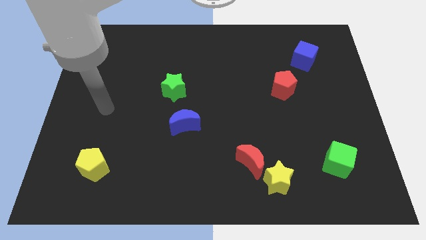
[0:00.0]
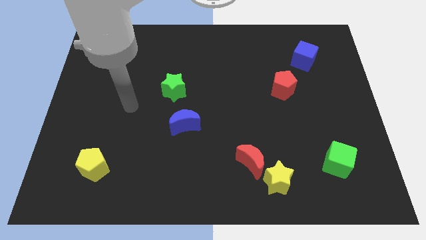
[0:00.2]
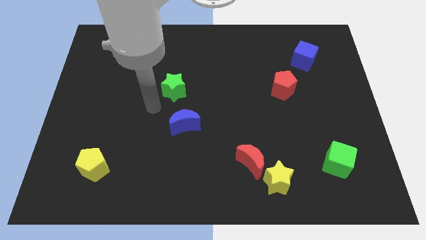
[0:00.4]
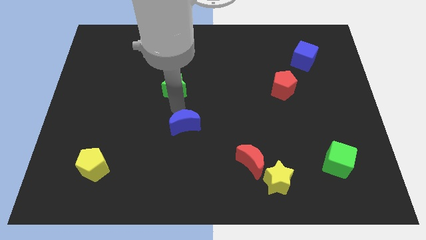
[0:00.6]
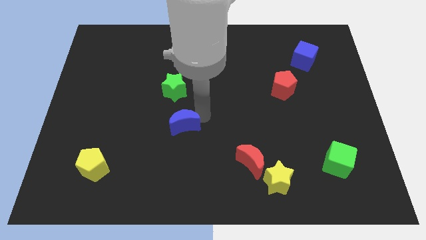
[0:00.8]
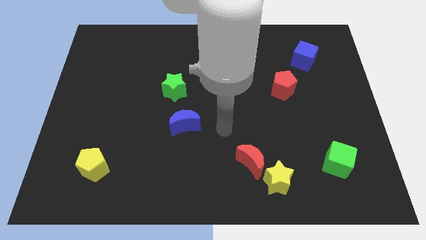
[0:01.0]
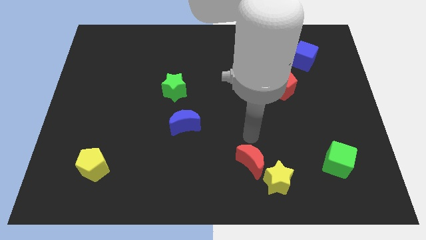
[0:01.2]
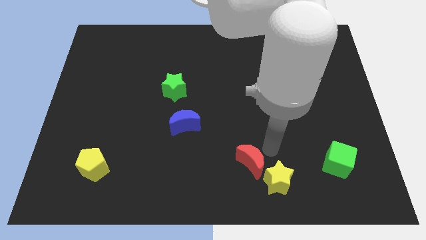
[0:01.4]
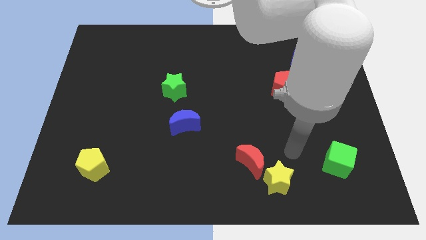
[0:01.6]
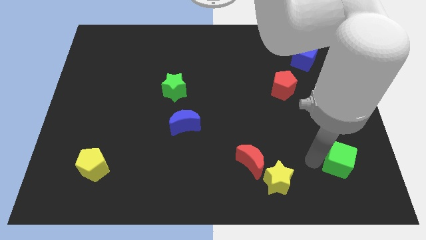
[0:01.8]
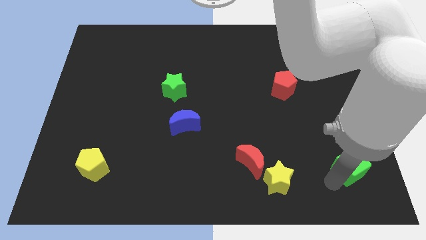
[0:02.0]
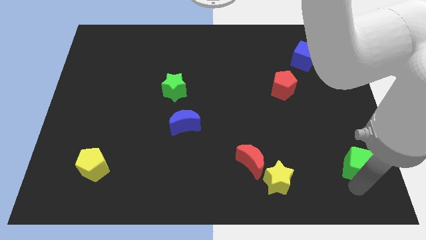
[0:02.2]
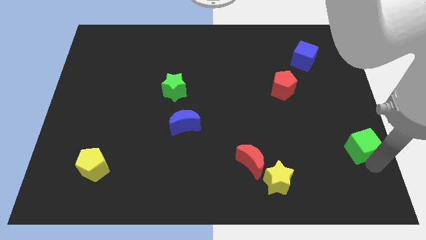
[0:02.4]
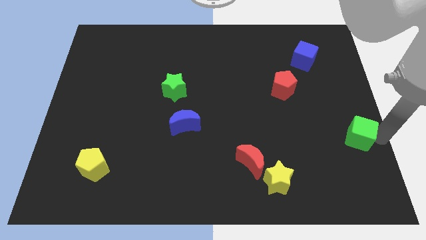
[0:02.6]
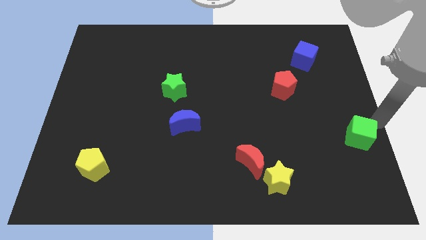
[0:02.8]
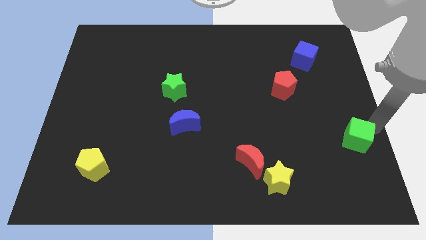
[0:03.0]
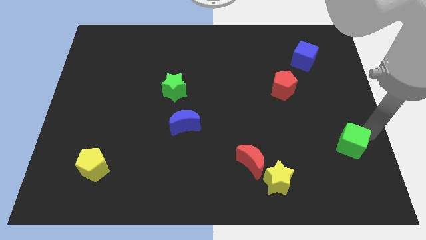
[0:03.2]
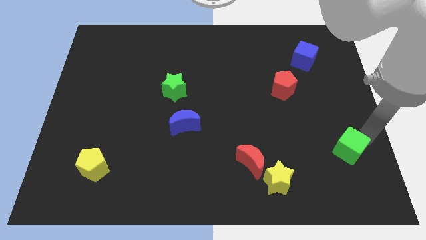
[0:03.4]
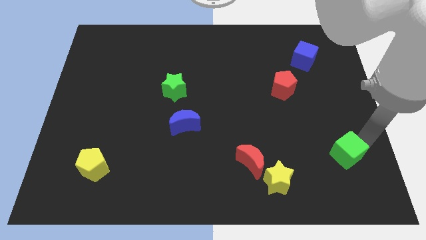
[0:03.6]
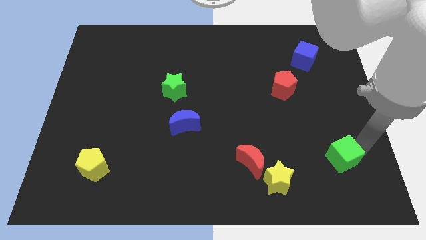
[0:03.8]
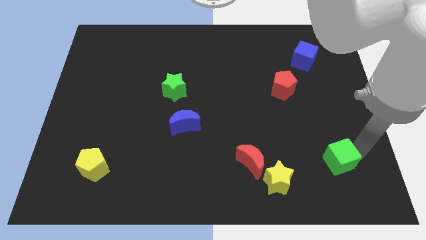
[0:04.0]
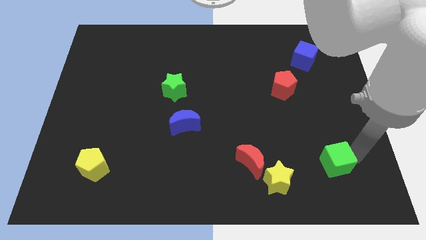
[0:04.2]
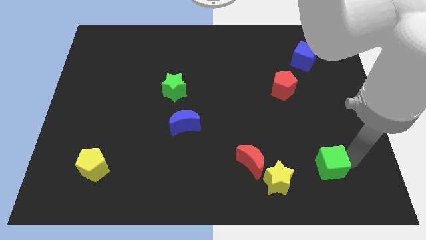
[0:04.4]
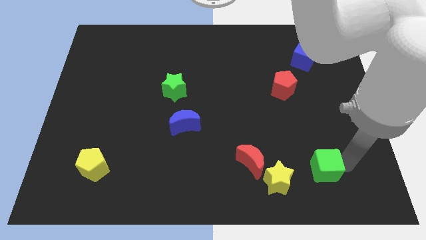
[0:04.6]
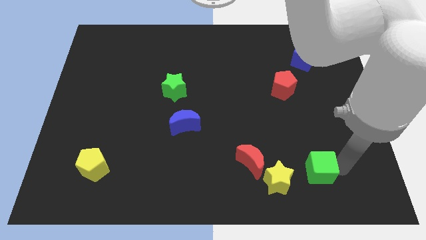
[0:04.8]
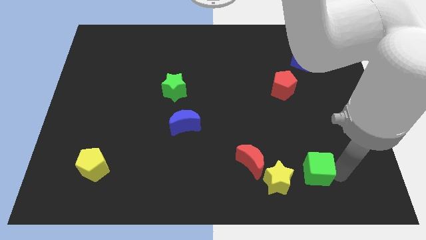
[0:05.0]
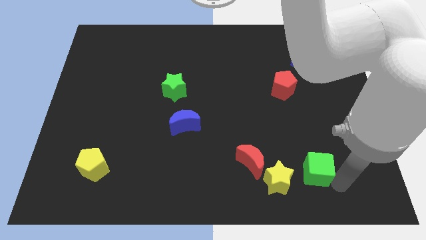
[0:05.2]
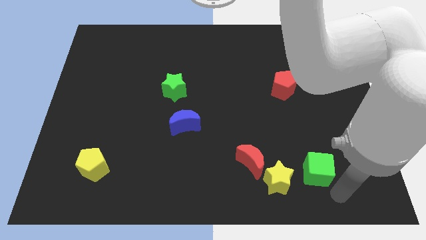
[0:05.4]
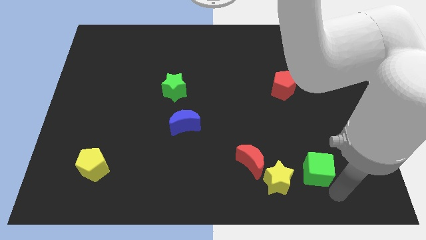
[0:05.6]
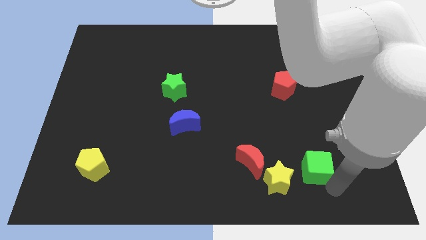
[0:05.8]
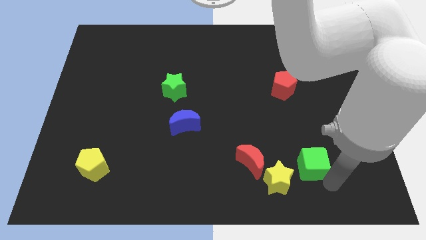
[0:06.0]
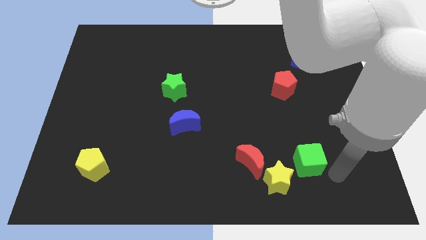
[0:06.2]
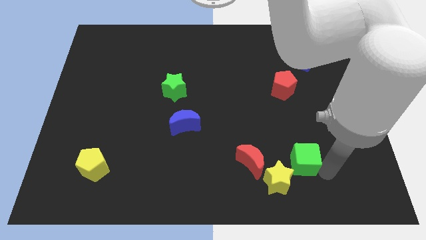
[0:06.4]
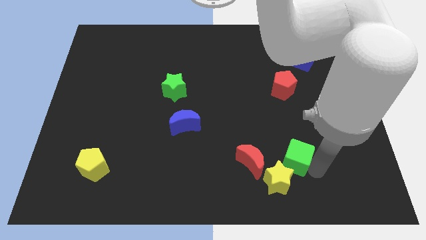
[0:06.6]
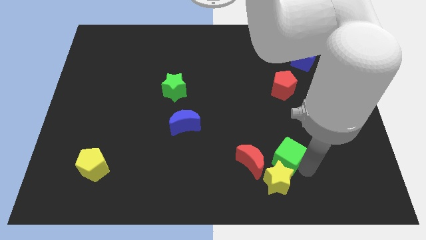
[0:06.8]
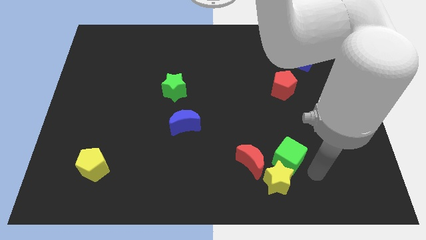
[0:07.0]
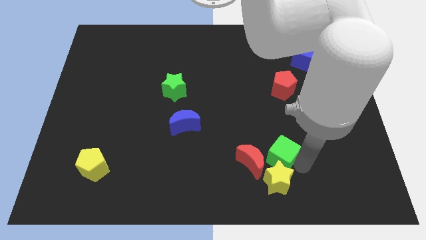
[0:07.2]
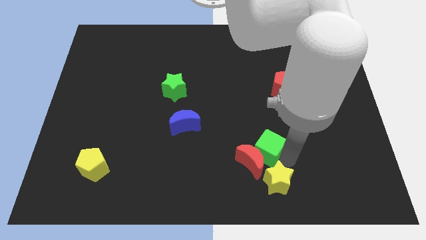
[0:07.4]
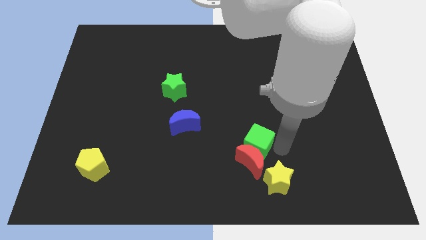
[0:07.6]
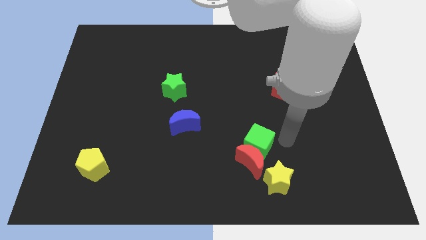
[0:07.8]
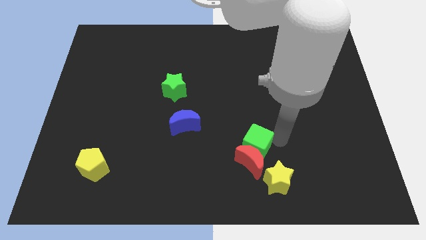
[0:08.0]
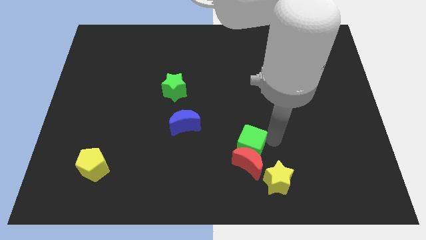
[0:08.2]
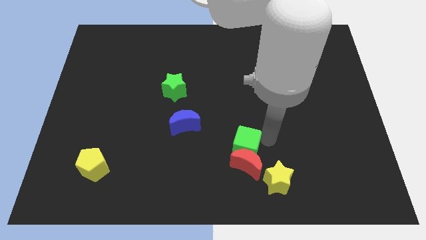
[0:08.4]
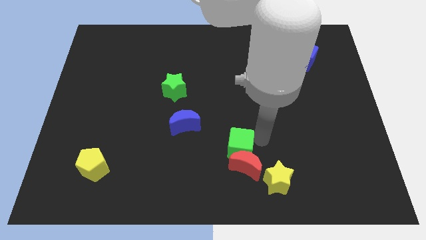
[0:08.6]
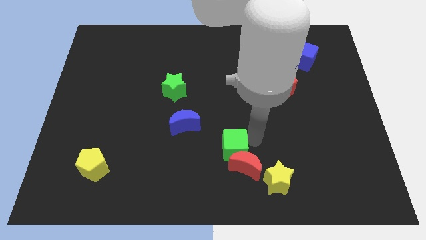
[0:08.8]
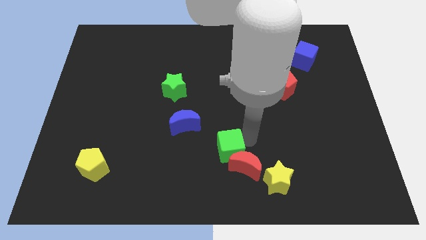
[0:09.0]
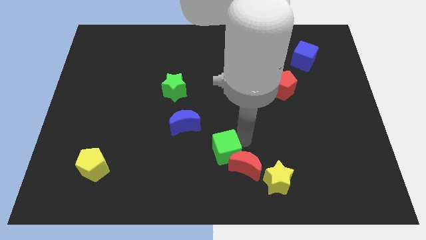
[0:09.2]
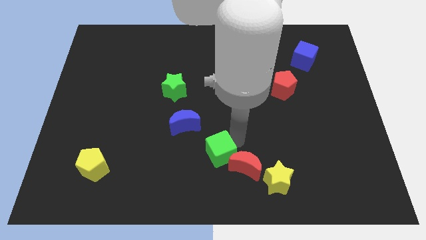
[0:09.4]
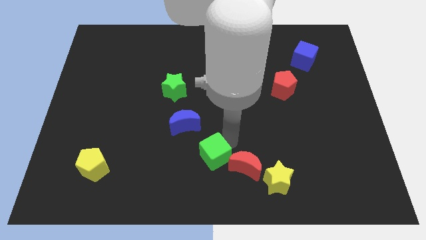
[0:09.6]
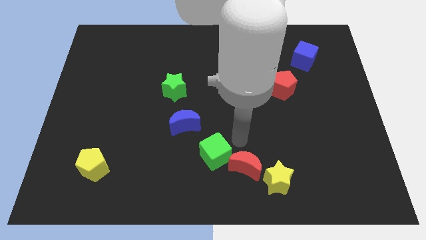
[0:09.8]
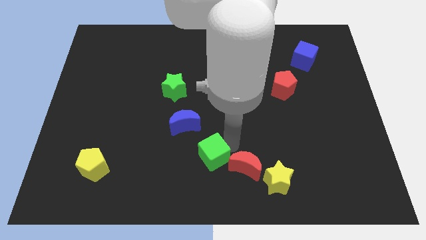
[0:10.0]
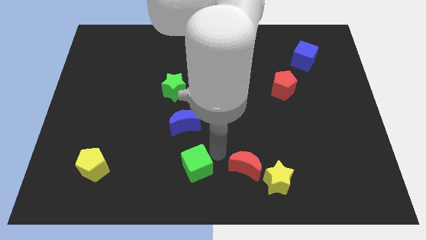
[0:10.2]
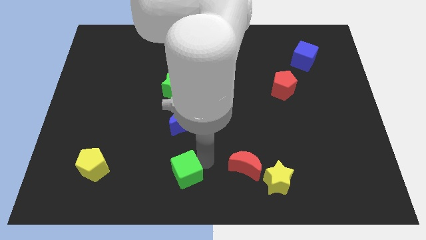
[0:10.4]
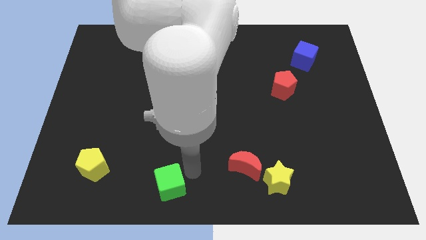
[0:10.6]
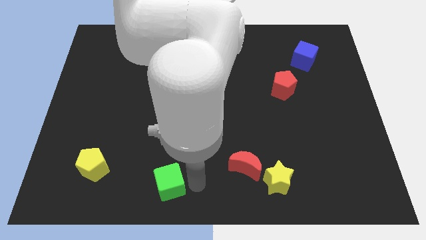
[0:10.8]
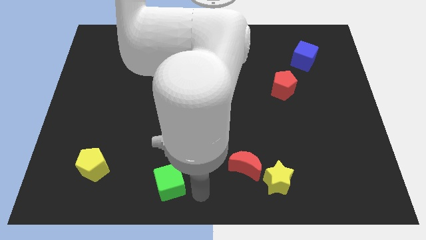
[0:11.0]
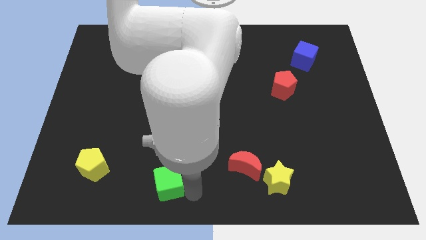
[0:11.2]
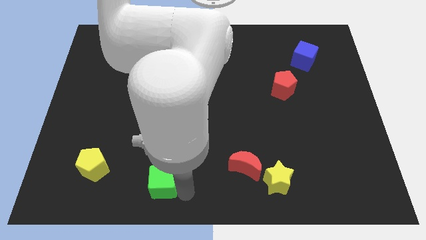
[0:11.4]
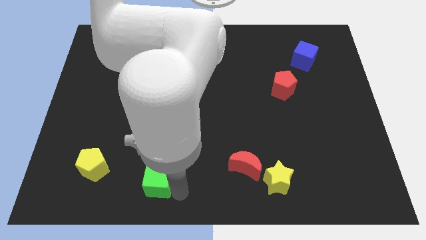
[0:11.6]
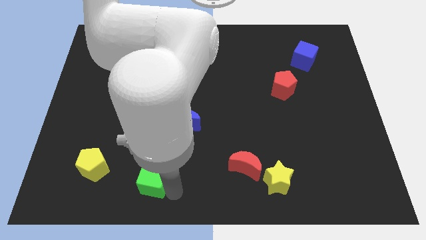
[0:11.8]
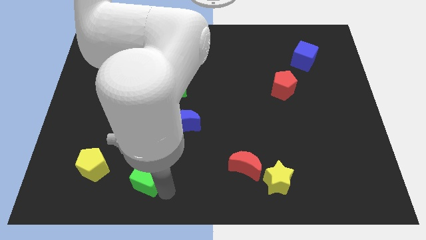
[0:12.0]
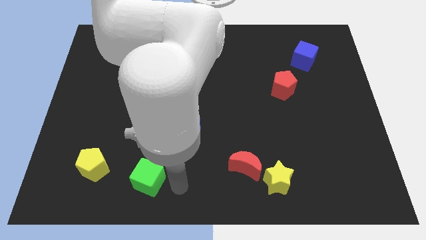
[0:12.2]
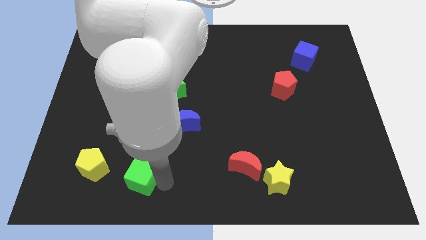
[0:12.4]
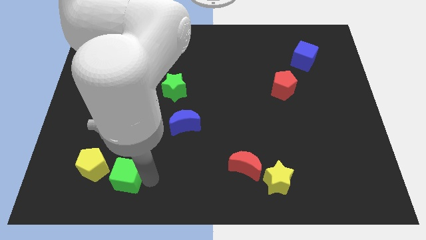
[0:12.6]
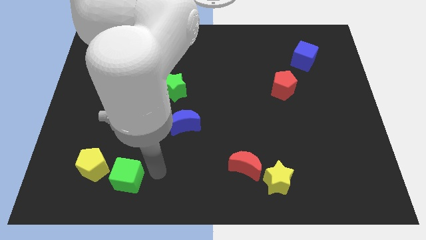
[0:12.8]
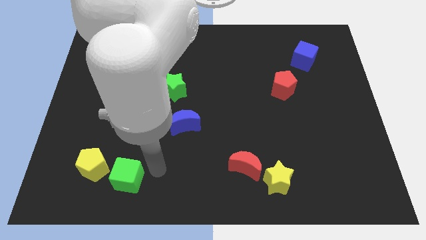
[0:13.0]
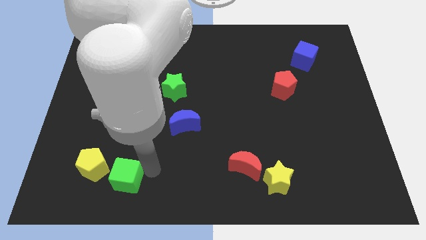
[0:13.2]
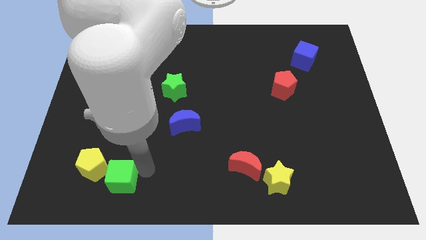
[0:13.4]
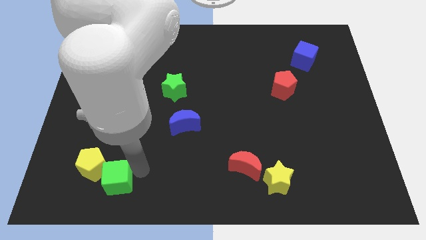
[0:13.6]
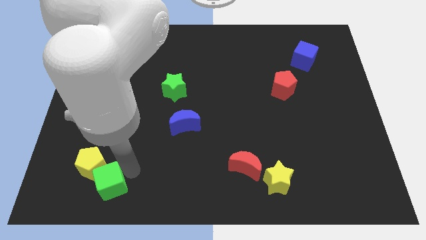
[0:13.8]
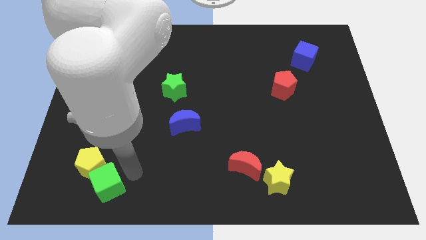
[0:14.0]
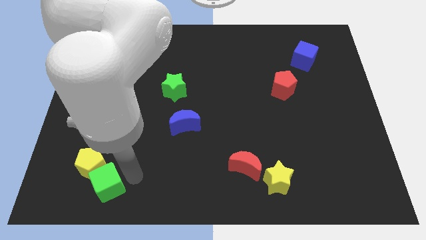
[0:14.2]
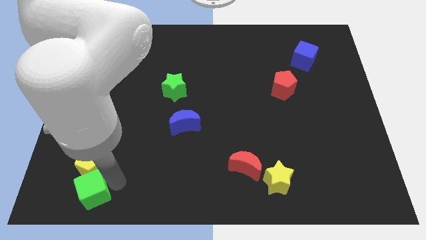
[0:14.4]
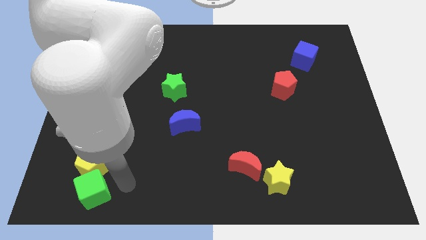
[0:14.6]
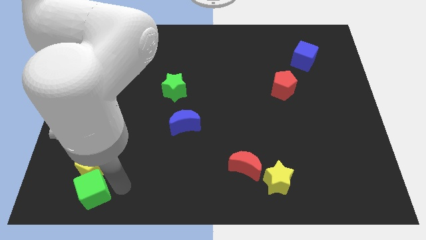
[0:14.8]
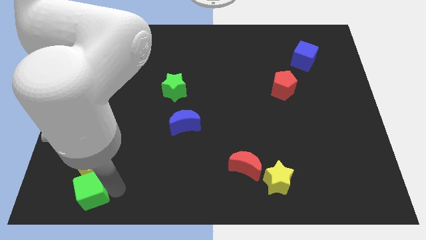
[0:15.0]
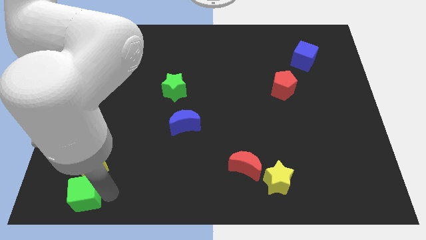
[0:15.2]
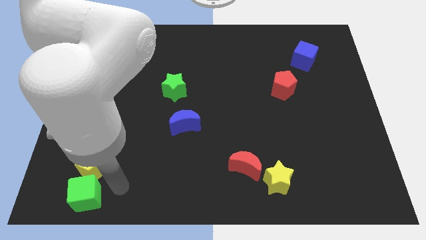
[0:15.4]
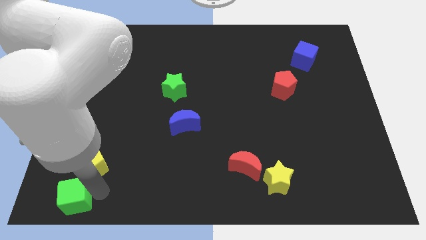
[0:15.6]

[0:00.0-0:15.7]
move the green cube to the lower left corner

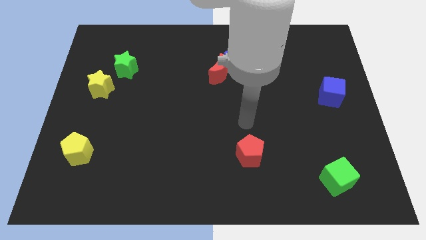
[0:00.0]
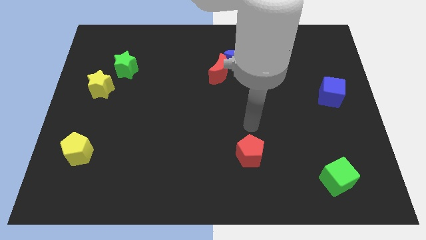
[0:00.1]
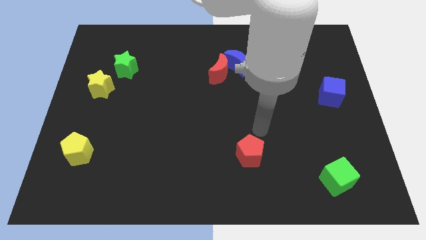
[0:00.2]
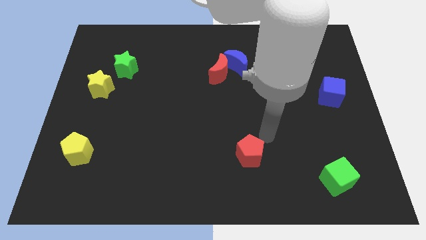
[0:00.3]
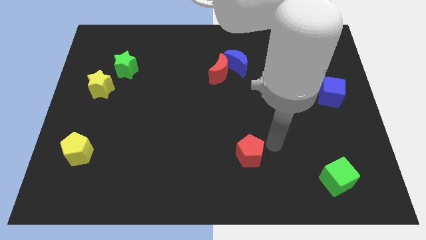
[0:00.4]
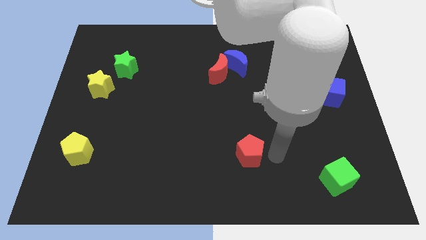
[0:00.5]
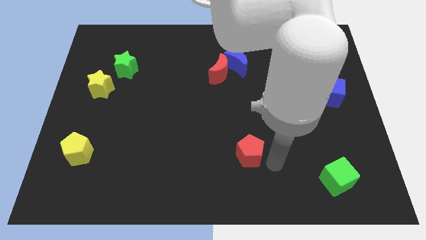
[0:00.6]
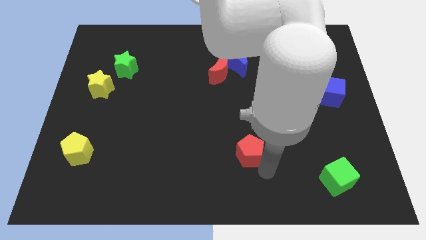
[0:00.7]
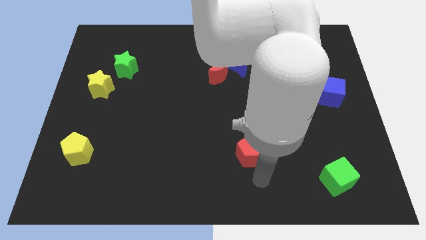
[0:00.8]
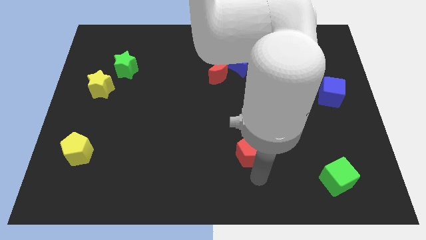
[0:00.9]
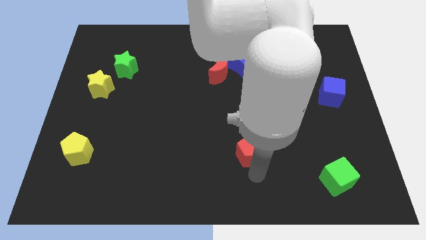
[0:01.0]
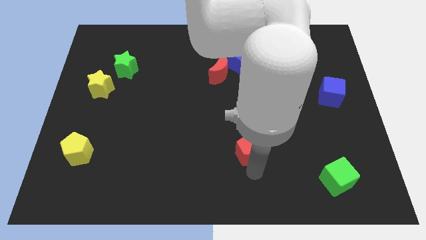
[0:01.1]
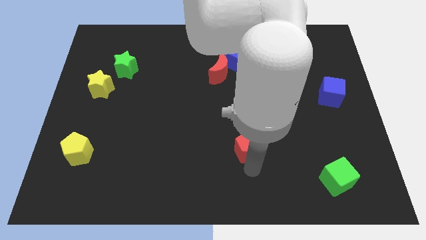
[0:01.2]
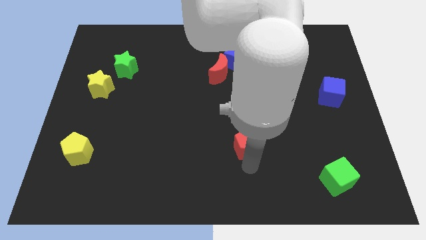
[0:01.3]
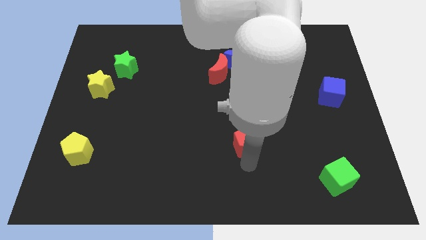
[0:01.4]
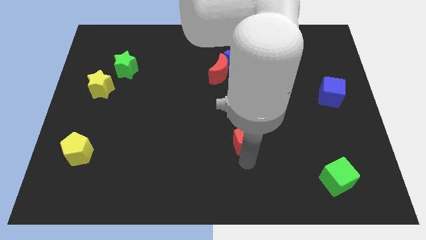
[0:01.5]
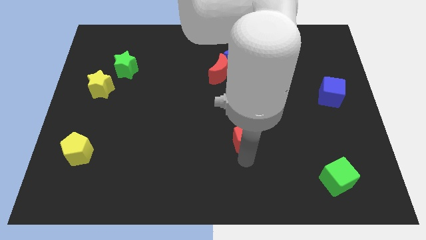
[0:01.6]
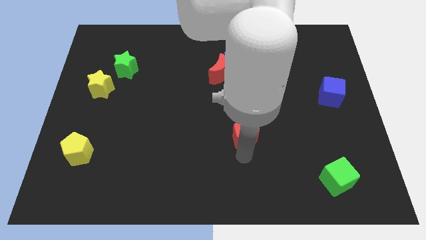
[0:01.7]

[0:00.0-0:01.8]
move the red pentagon to the center of the board
